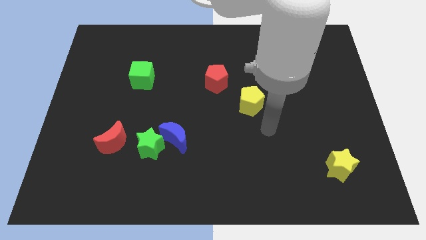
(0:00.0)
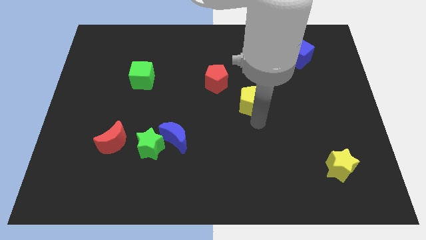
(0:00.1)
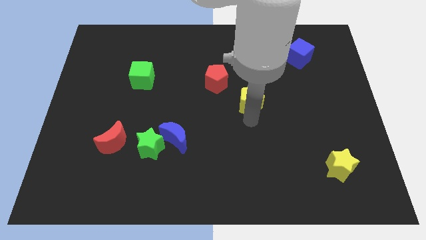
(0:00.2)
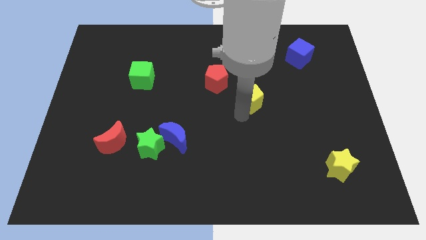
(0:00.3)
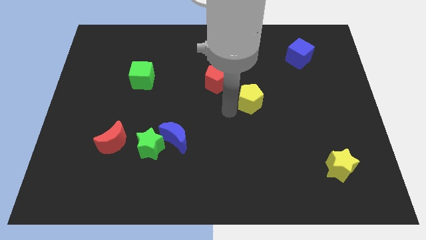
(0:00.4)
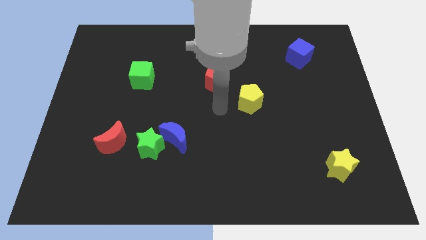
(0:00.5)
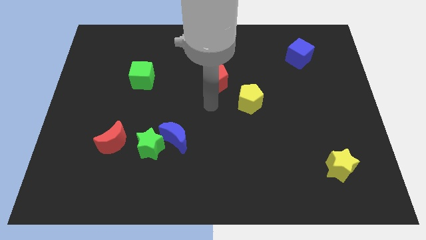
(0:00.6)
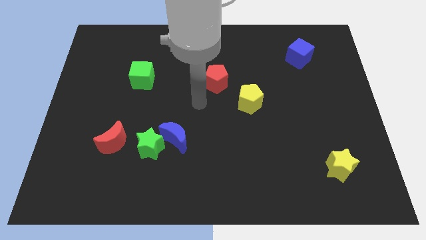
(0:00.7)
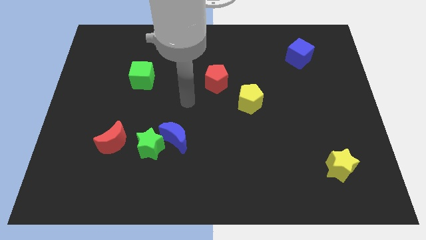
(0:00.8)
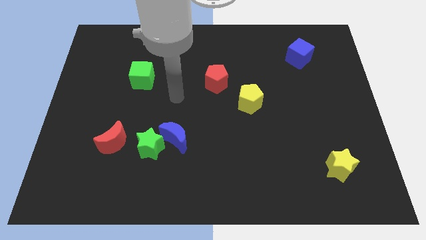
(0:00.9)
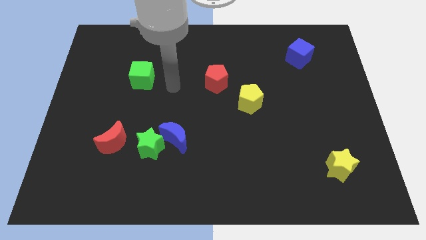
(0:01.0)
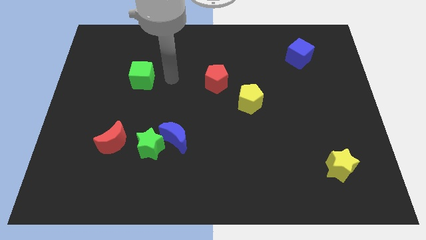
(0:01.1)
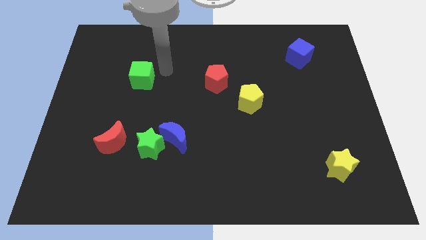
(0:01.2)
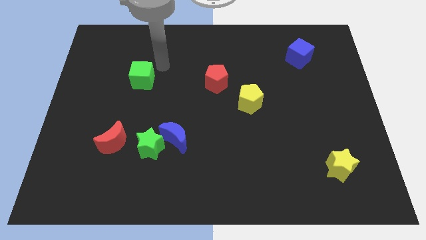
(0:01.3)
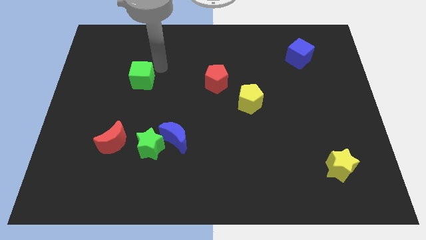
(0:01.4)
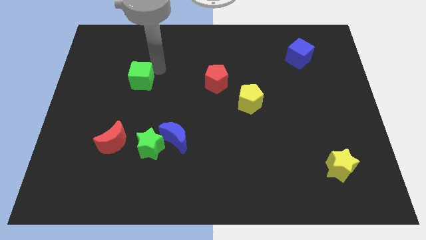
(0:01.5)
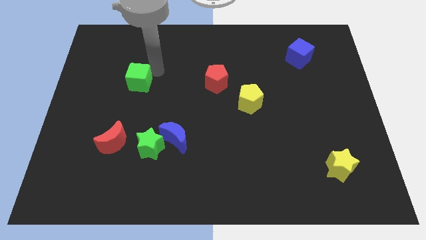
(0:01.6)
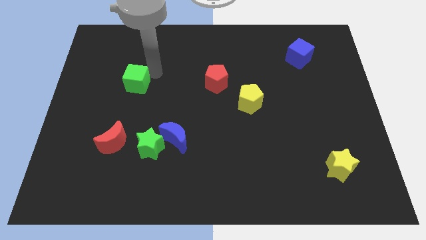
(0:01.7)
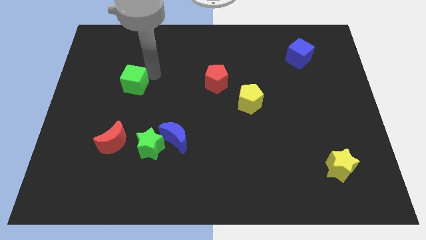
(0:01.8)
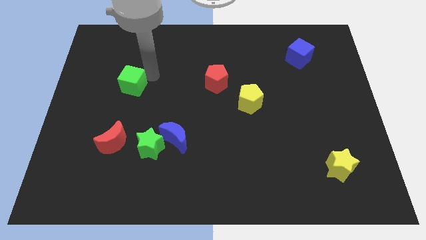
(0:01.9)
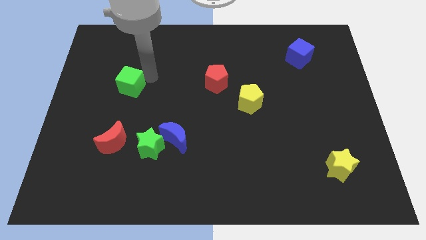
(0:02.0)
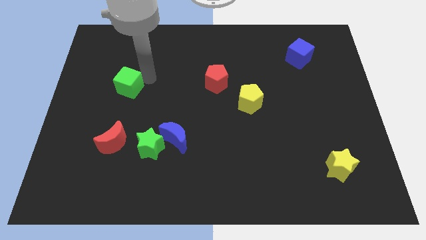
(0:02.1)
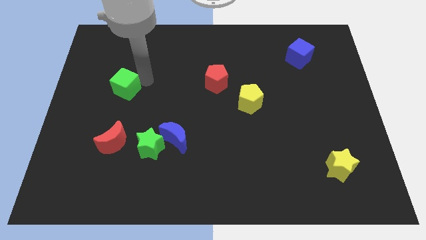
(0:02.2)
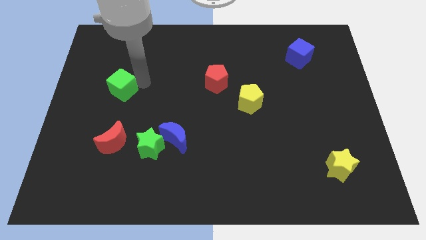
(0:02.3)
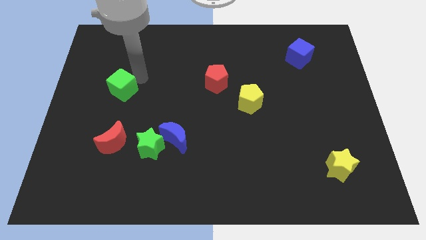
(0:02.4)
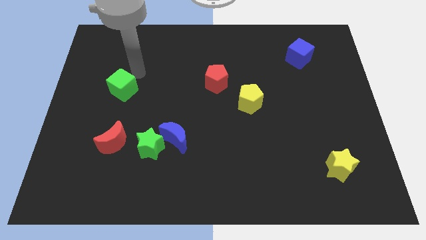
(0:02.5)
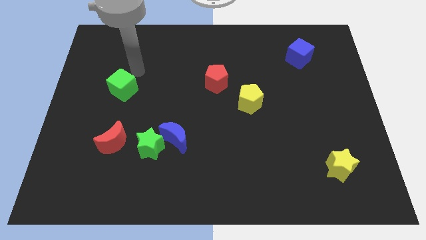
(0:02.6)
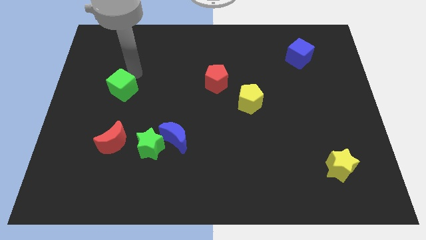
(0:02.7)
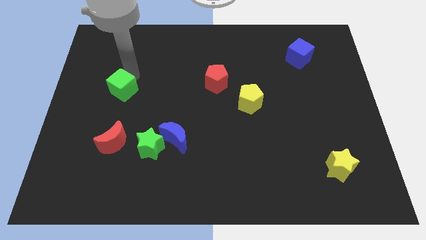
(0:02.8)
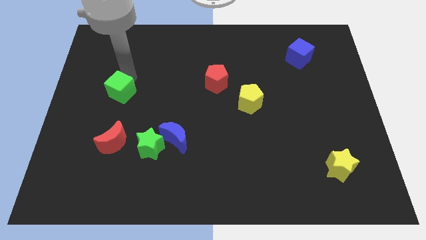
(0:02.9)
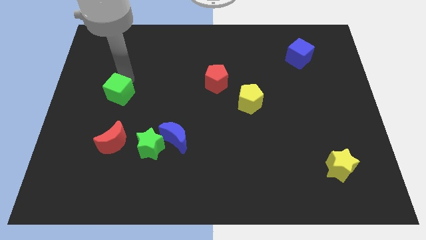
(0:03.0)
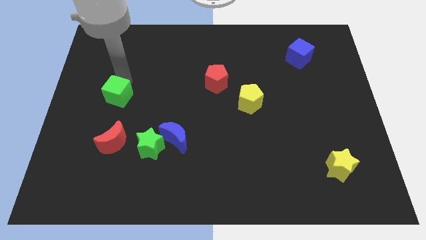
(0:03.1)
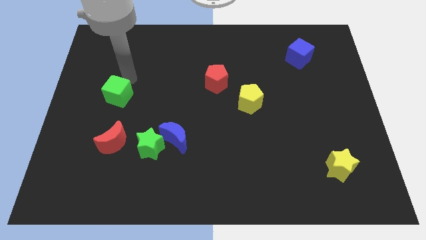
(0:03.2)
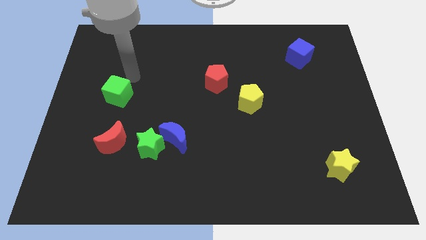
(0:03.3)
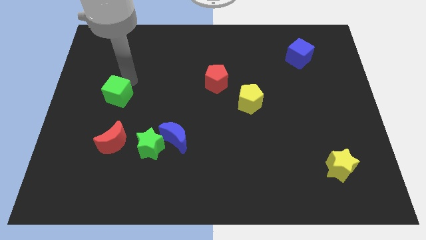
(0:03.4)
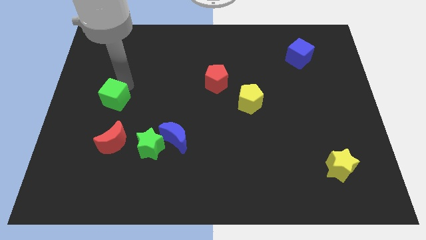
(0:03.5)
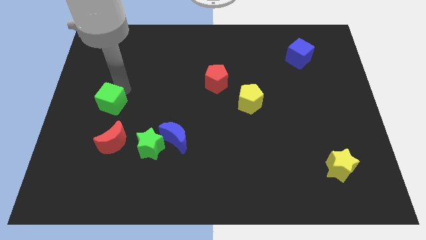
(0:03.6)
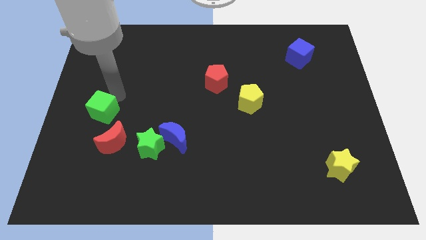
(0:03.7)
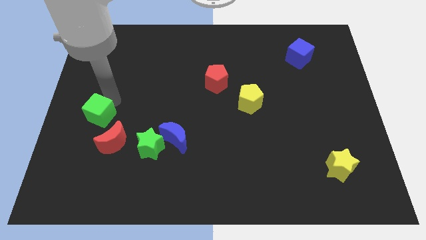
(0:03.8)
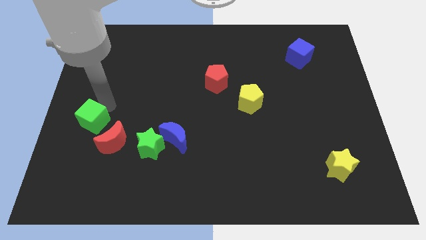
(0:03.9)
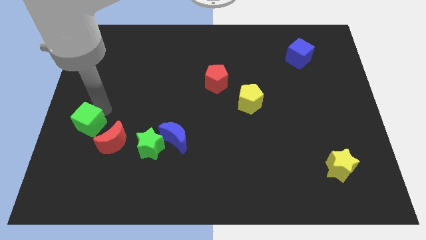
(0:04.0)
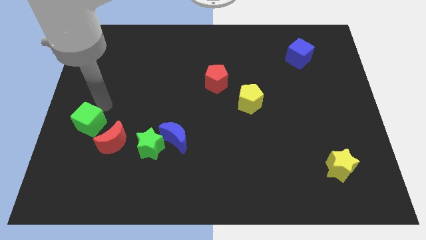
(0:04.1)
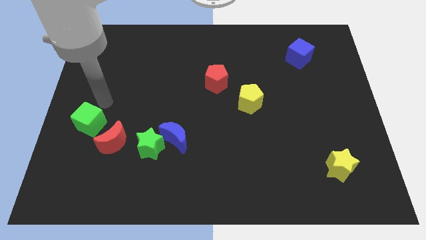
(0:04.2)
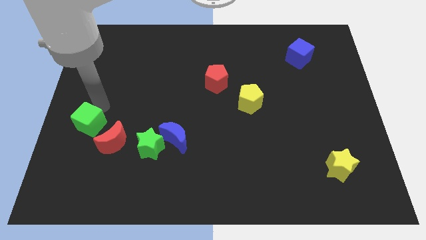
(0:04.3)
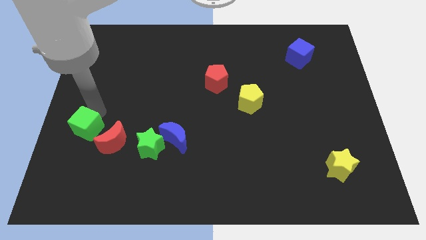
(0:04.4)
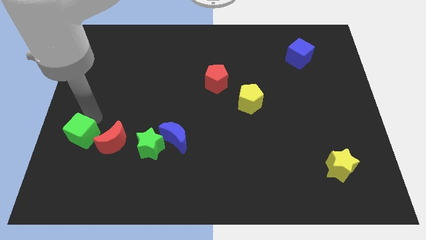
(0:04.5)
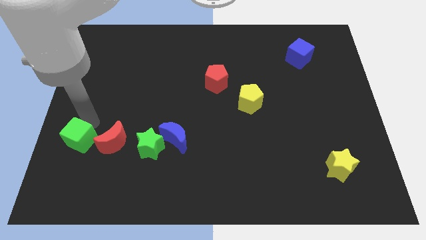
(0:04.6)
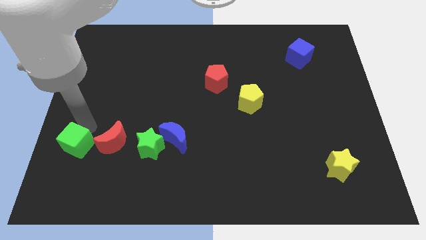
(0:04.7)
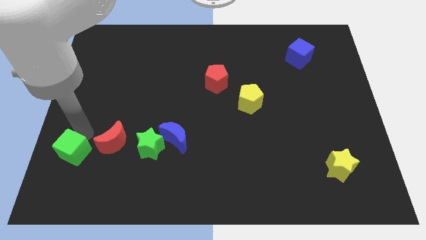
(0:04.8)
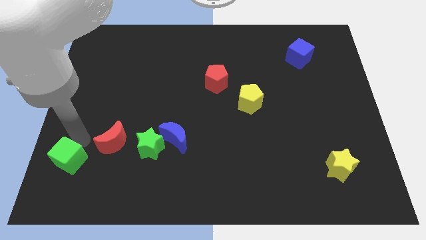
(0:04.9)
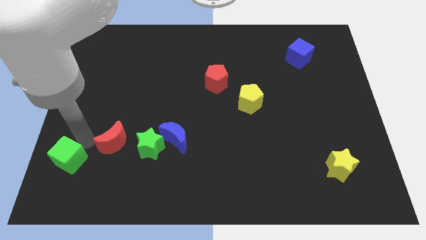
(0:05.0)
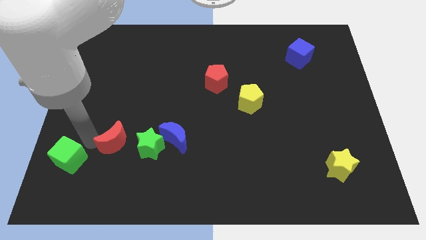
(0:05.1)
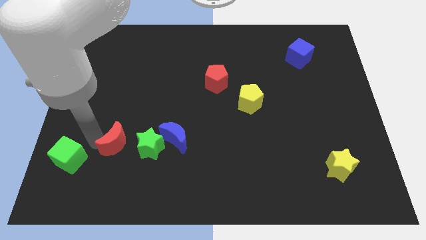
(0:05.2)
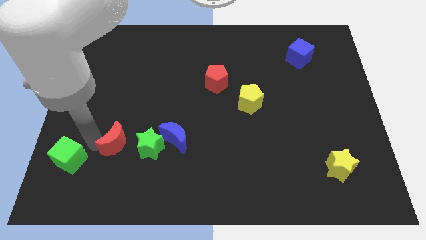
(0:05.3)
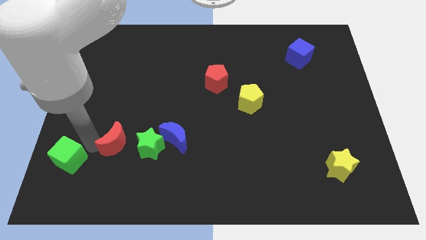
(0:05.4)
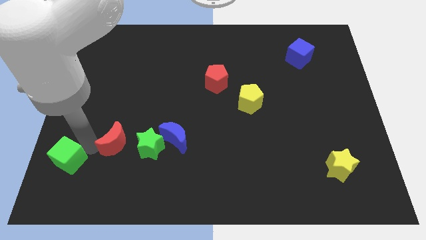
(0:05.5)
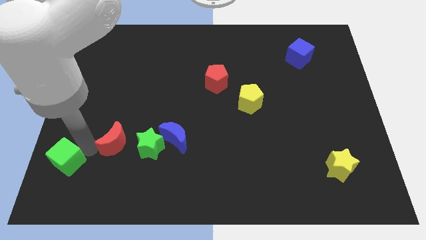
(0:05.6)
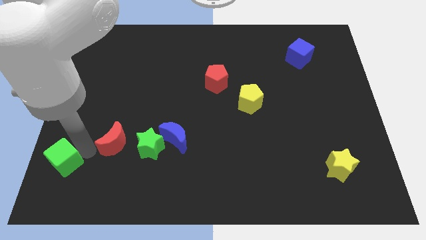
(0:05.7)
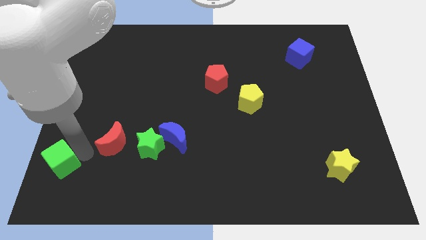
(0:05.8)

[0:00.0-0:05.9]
slide the green cube to the bottom left of the board

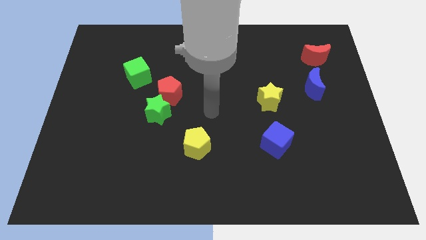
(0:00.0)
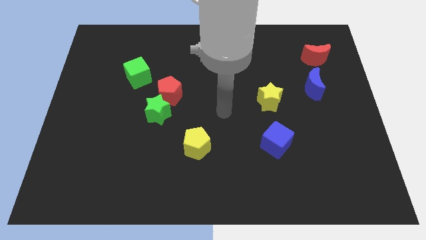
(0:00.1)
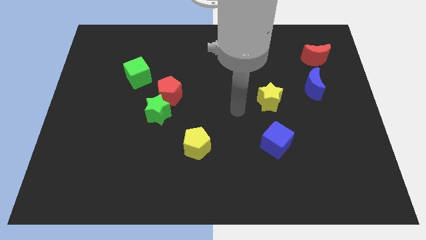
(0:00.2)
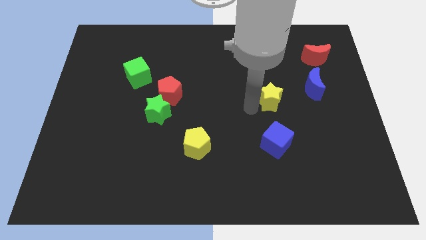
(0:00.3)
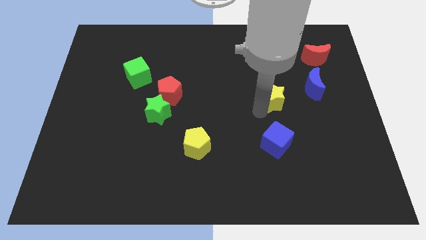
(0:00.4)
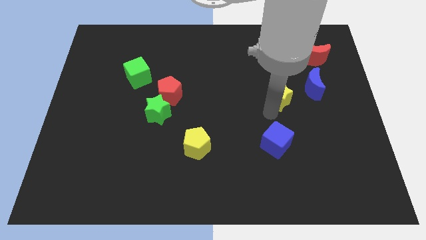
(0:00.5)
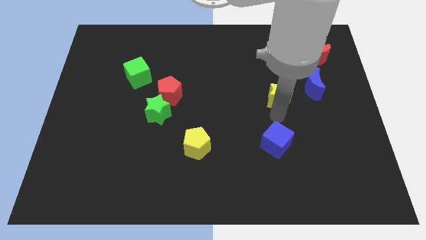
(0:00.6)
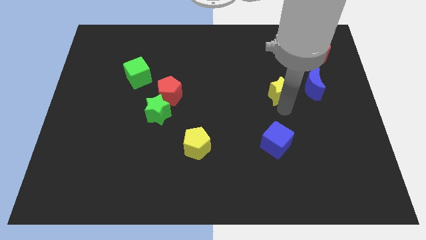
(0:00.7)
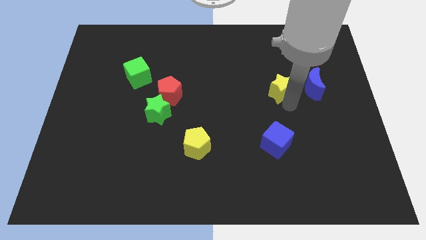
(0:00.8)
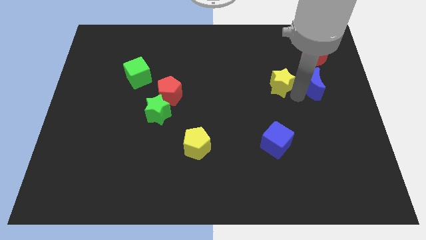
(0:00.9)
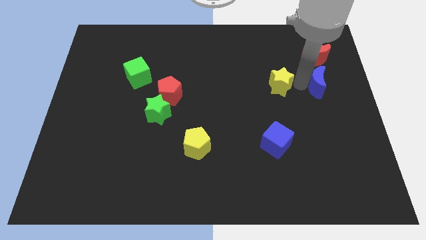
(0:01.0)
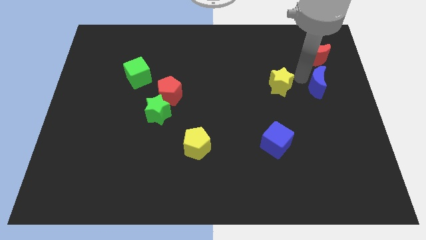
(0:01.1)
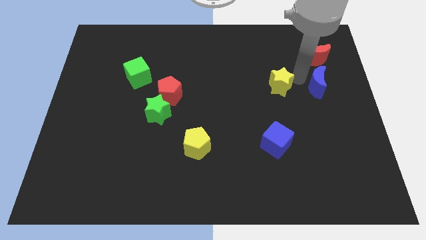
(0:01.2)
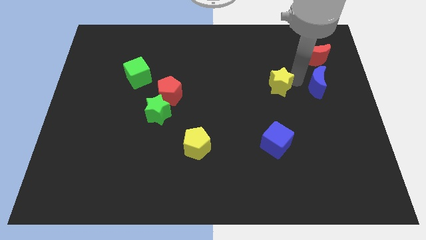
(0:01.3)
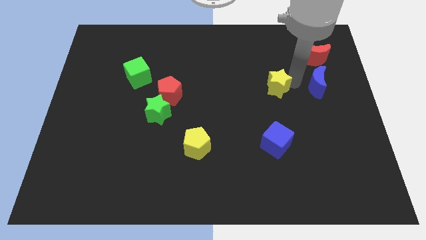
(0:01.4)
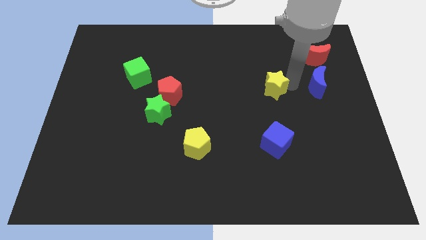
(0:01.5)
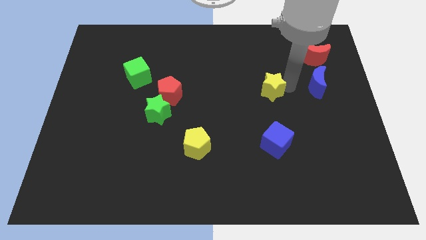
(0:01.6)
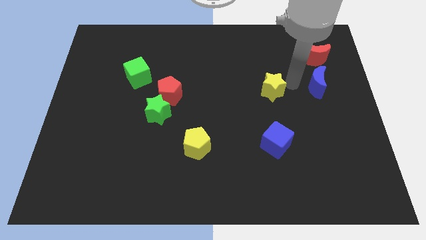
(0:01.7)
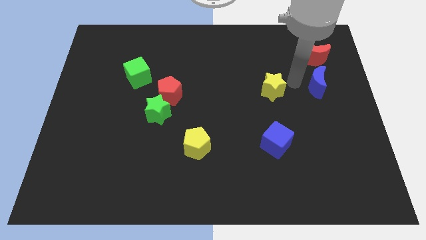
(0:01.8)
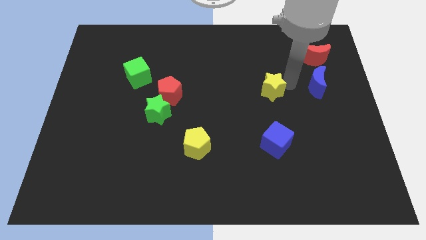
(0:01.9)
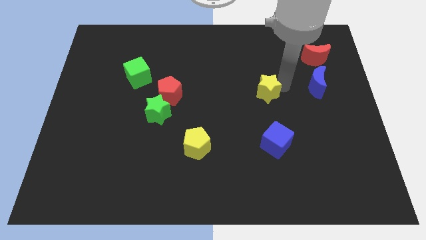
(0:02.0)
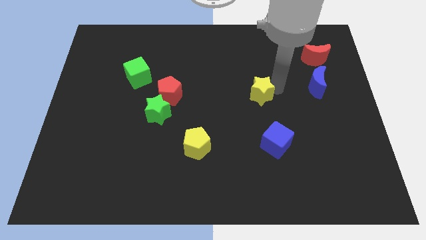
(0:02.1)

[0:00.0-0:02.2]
move the yellow star to the middle
